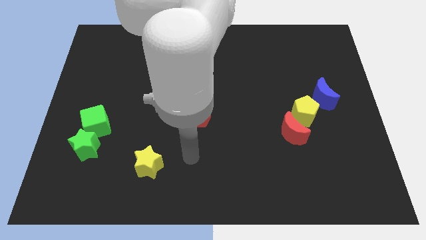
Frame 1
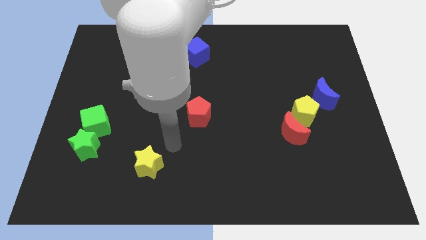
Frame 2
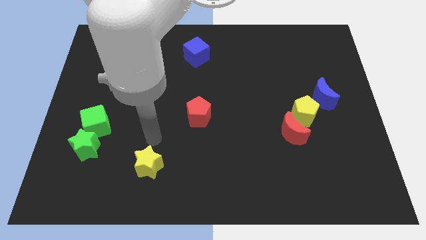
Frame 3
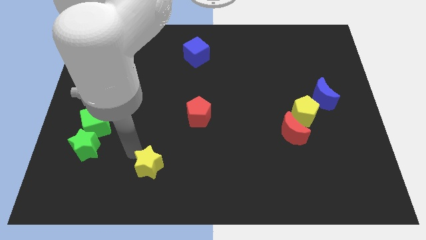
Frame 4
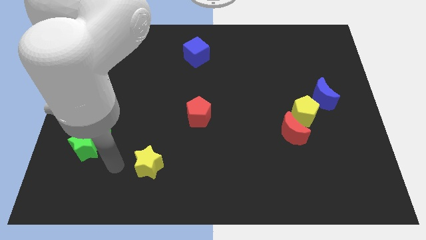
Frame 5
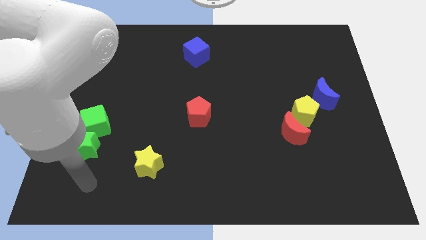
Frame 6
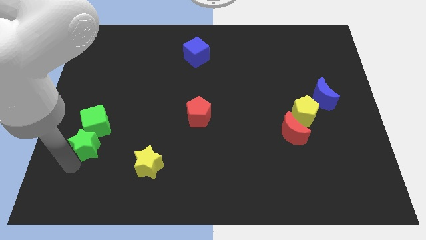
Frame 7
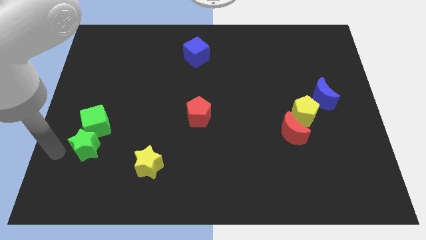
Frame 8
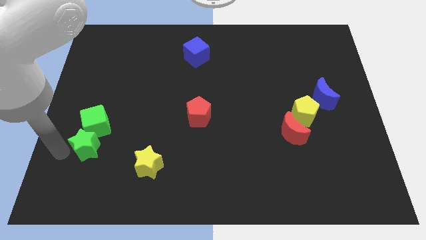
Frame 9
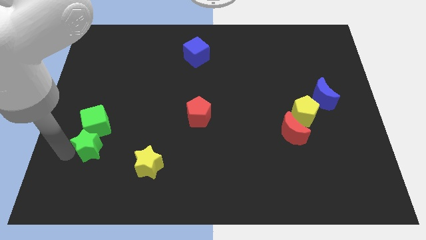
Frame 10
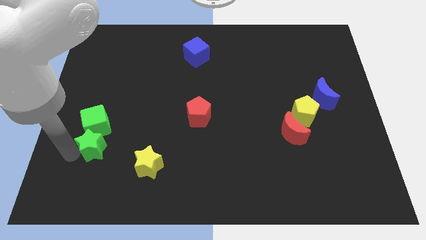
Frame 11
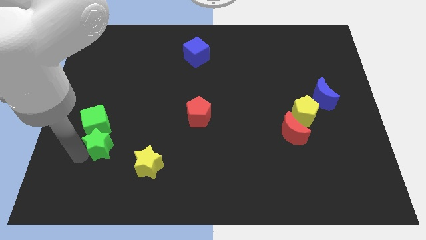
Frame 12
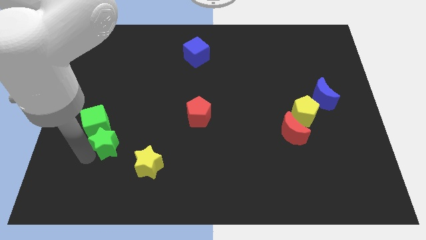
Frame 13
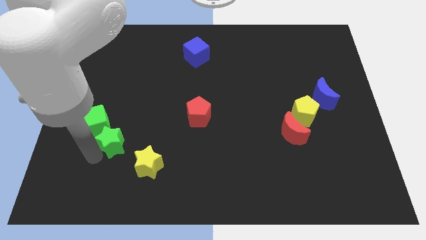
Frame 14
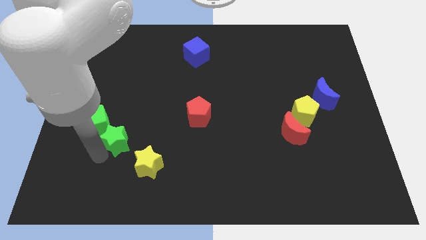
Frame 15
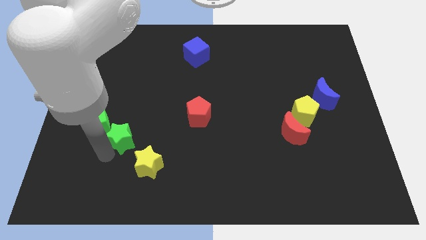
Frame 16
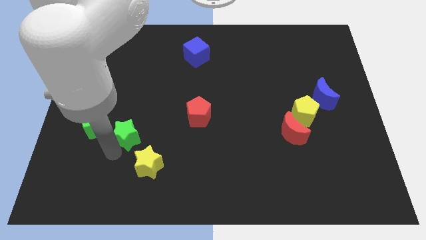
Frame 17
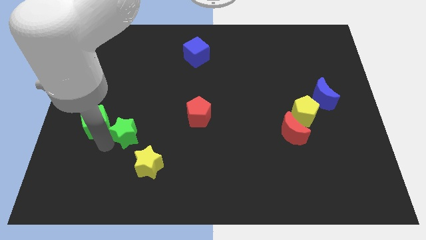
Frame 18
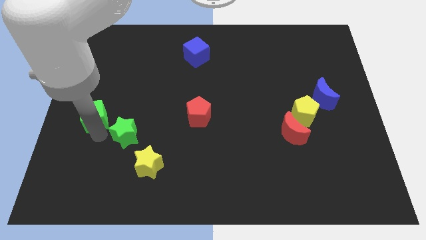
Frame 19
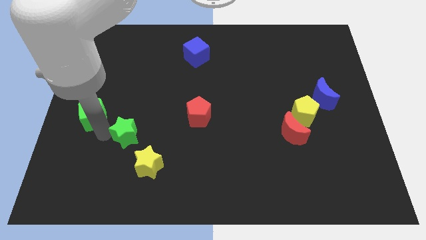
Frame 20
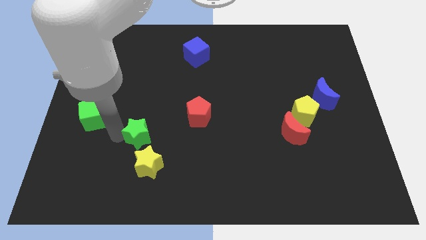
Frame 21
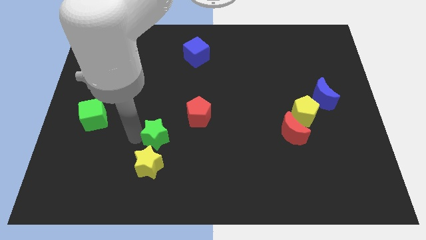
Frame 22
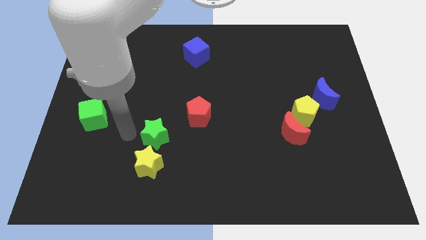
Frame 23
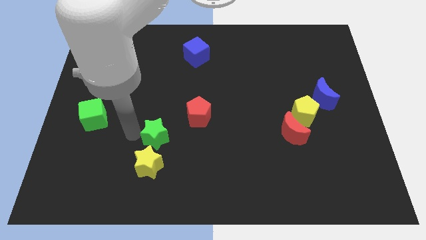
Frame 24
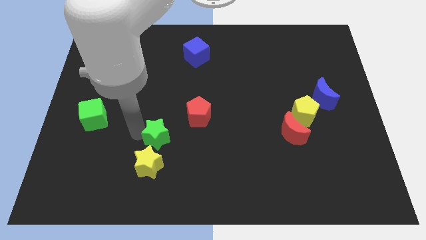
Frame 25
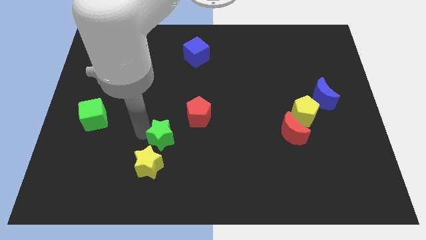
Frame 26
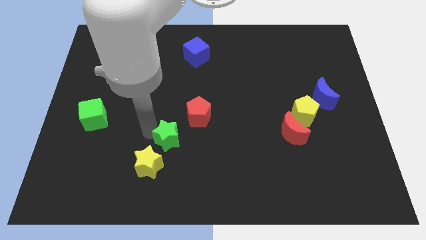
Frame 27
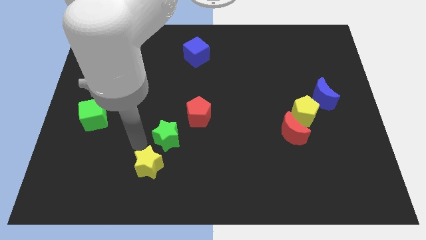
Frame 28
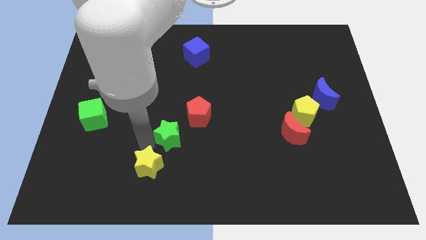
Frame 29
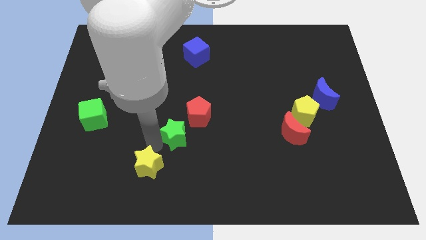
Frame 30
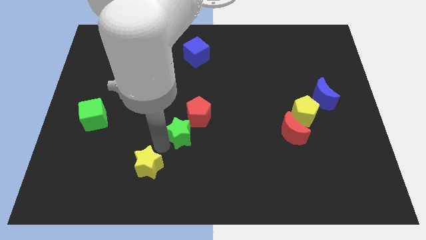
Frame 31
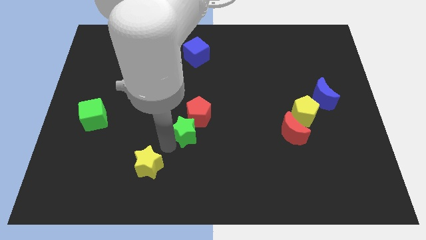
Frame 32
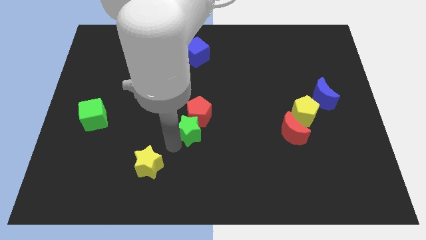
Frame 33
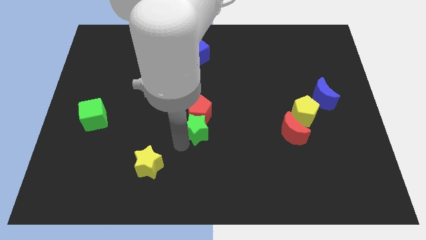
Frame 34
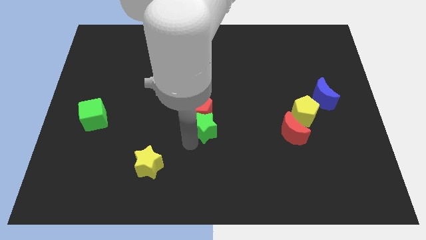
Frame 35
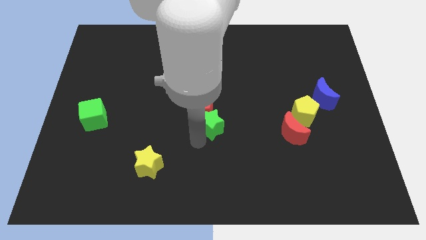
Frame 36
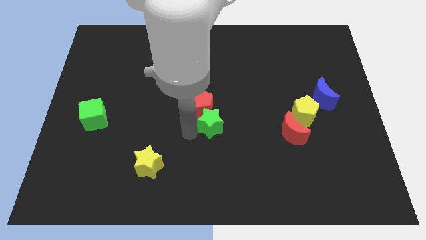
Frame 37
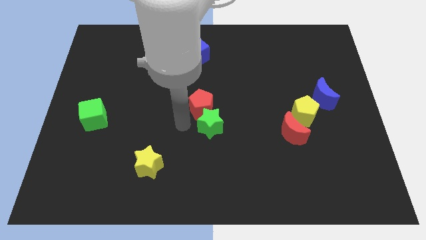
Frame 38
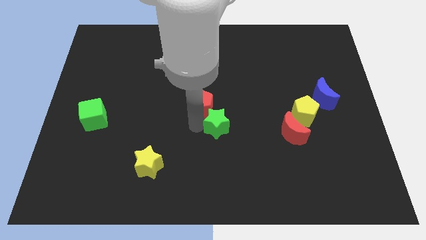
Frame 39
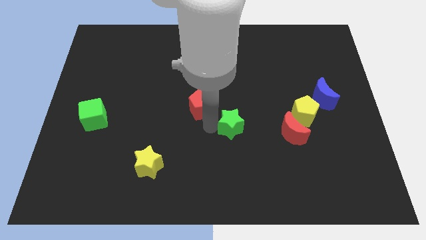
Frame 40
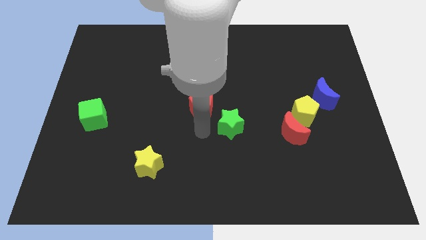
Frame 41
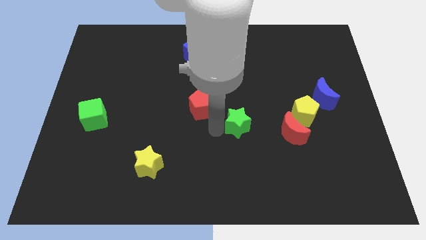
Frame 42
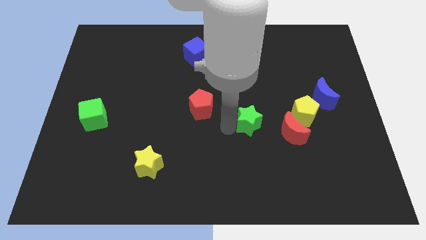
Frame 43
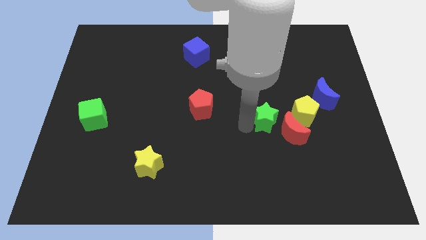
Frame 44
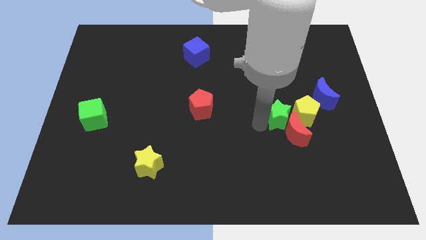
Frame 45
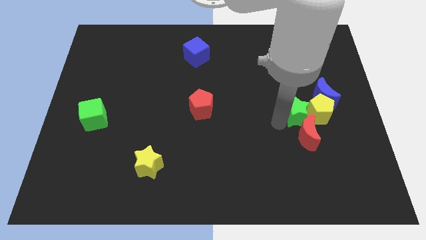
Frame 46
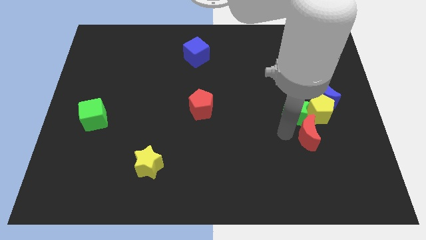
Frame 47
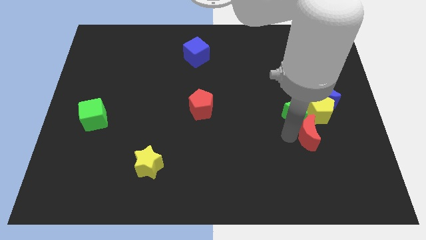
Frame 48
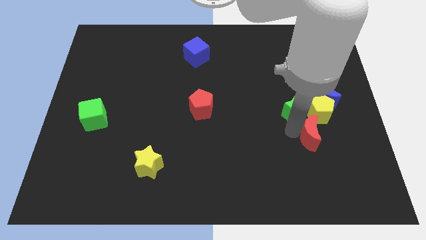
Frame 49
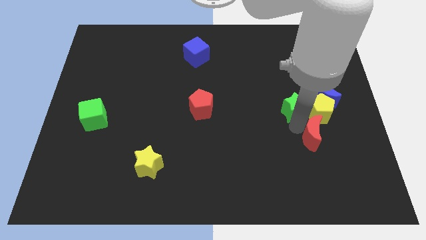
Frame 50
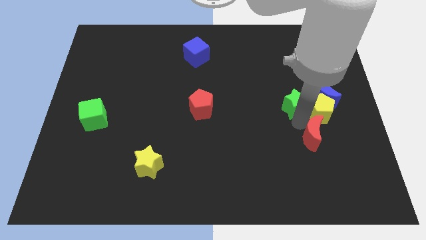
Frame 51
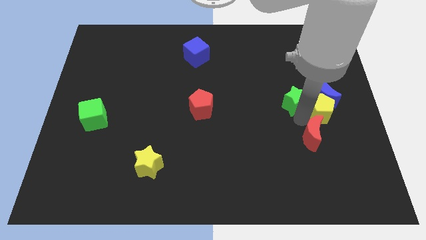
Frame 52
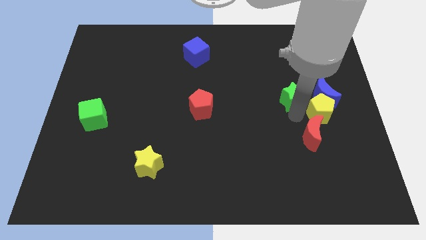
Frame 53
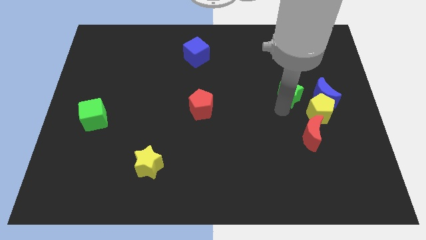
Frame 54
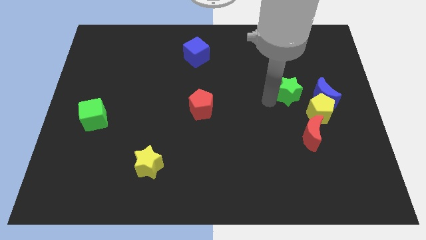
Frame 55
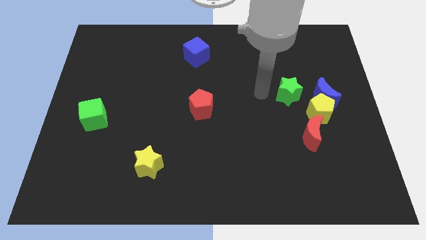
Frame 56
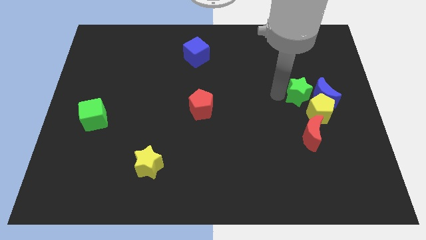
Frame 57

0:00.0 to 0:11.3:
move the green star towards the blue moon

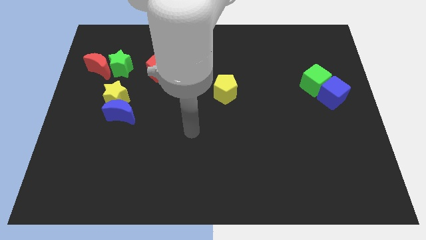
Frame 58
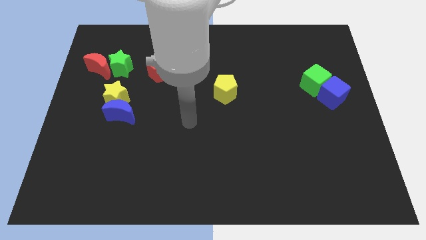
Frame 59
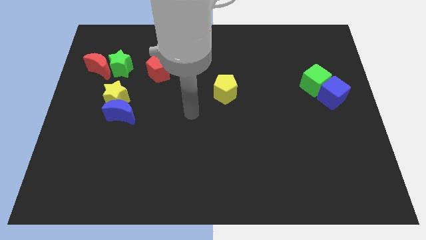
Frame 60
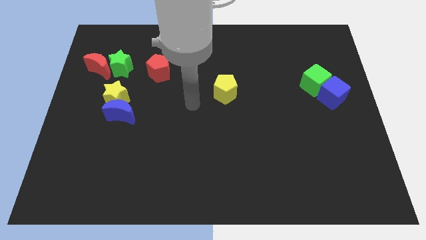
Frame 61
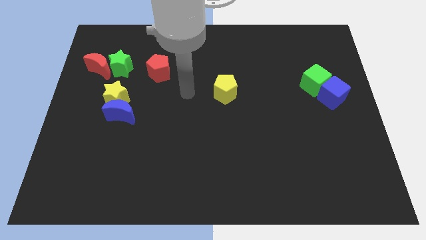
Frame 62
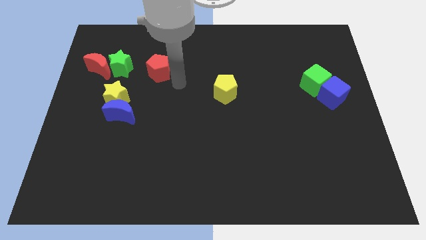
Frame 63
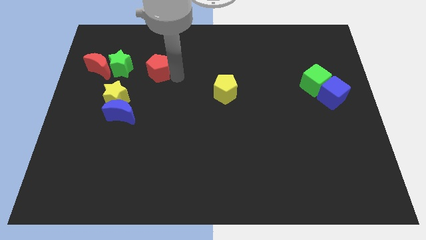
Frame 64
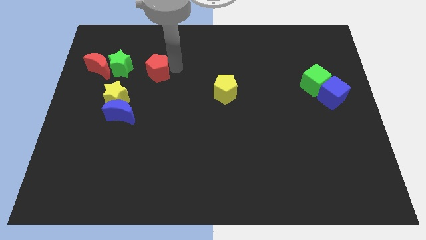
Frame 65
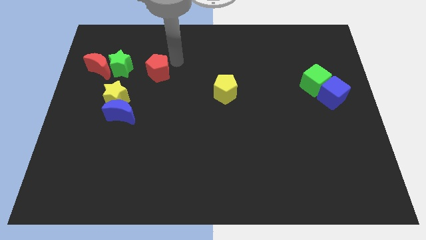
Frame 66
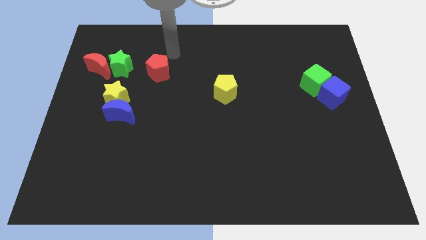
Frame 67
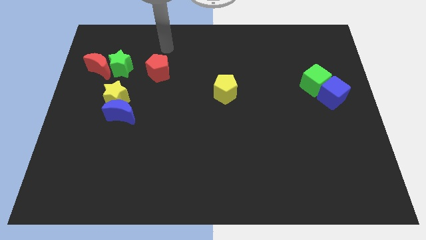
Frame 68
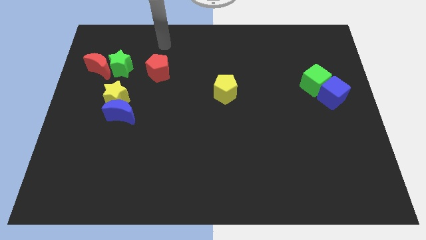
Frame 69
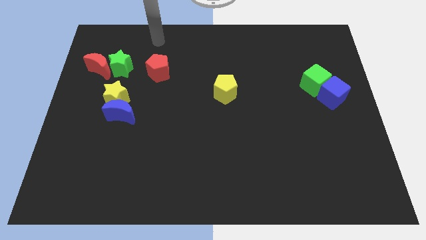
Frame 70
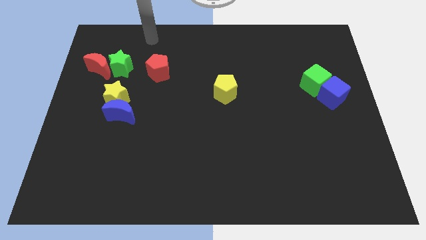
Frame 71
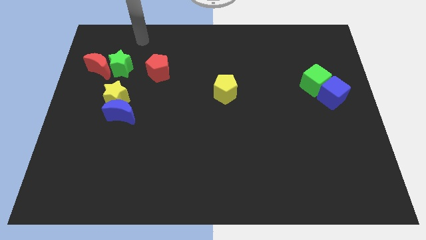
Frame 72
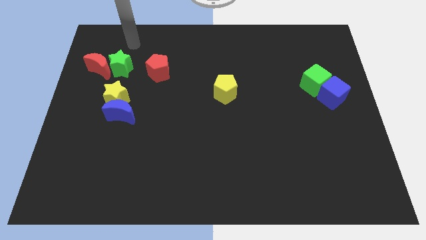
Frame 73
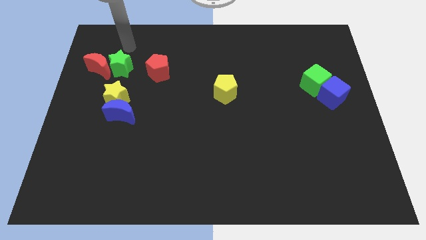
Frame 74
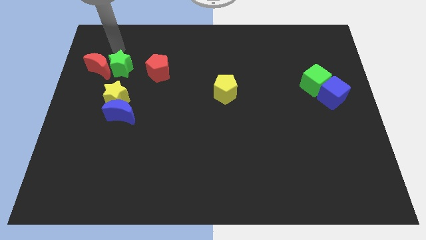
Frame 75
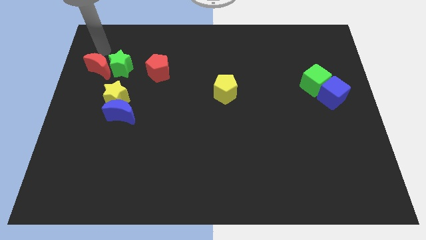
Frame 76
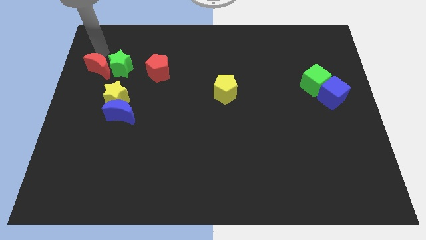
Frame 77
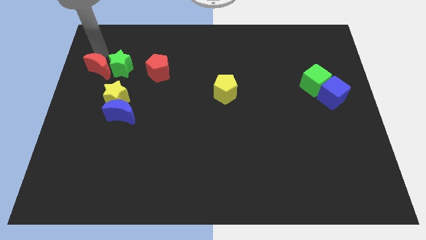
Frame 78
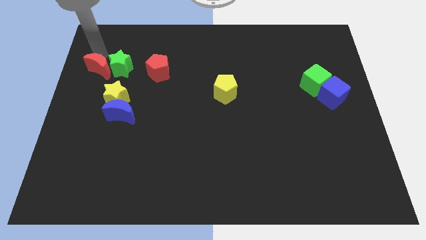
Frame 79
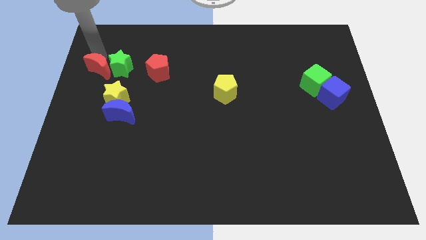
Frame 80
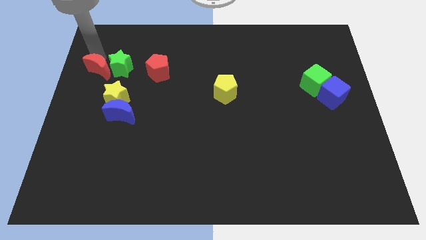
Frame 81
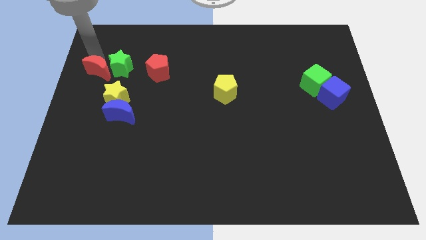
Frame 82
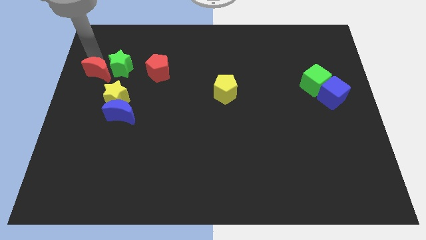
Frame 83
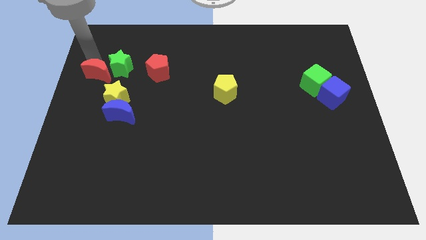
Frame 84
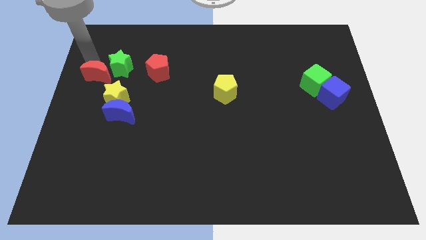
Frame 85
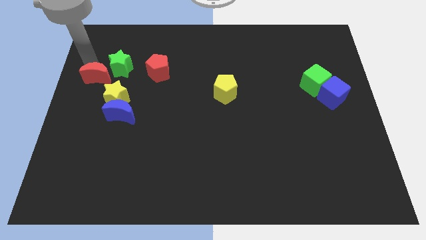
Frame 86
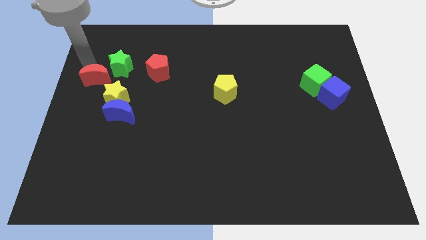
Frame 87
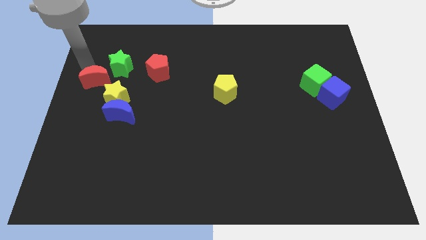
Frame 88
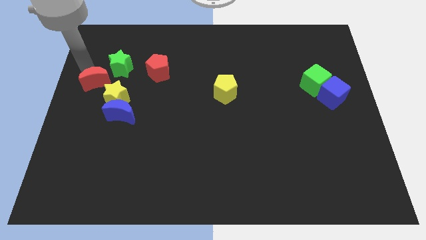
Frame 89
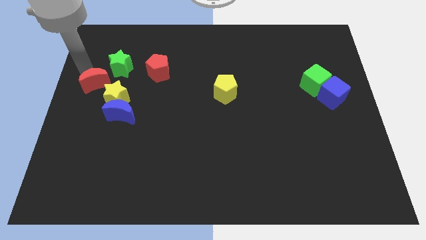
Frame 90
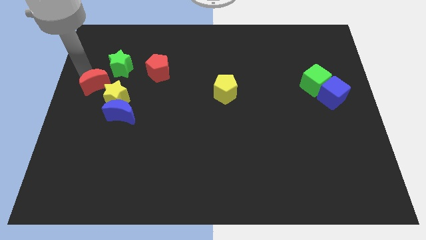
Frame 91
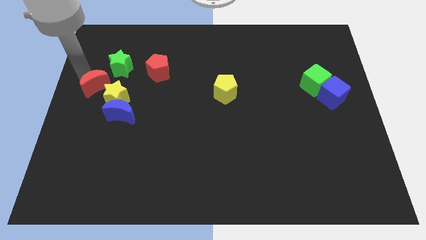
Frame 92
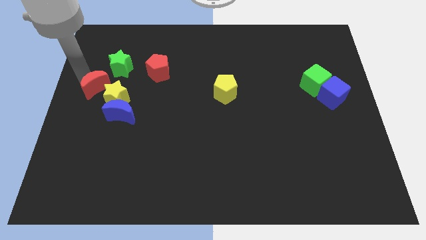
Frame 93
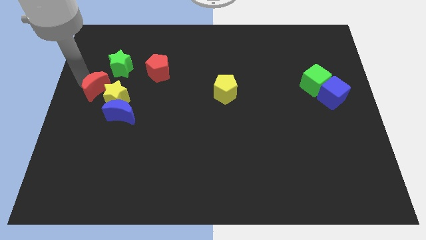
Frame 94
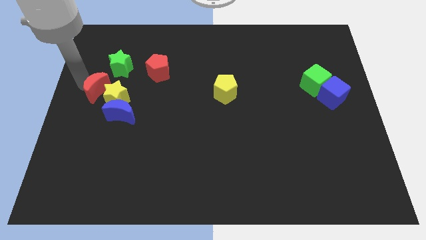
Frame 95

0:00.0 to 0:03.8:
slide the red moon towards the yellow star
